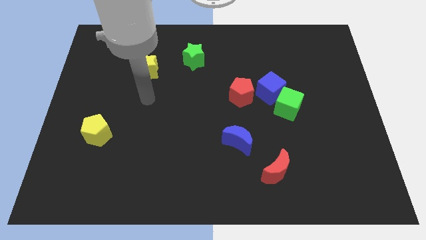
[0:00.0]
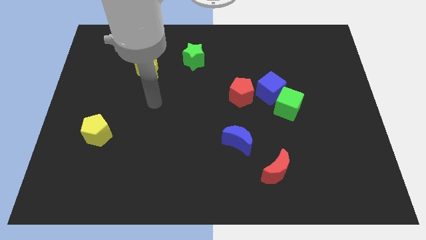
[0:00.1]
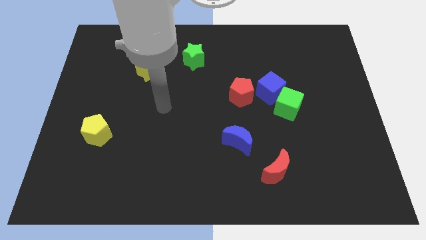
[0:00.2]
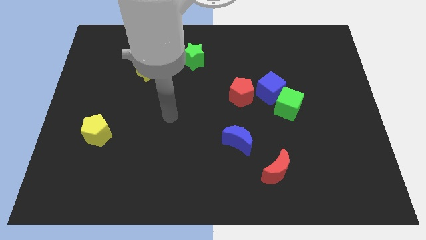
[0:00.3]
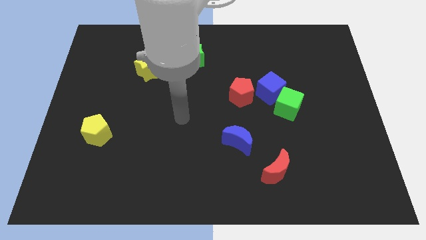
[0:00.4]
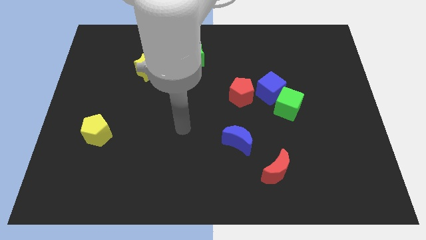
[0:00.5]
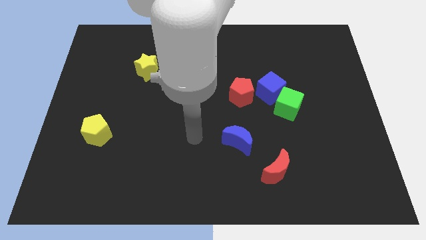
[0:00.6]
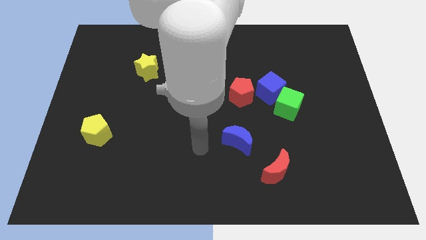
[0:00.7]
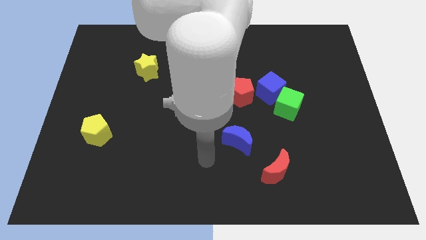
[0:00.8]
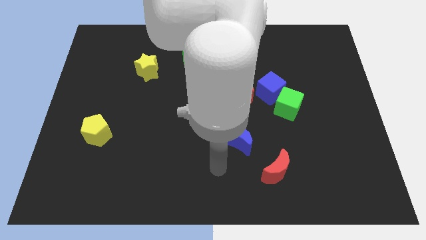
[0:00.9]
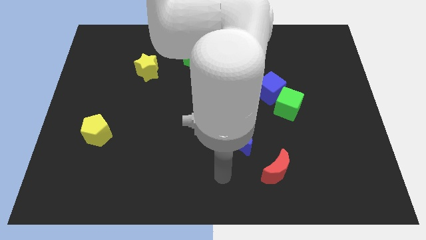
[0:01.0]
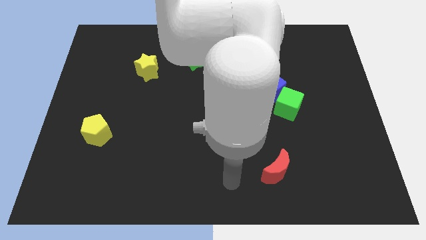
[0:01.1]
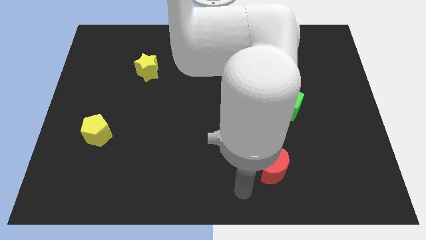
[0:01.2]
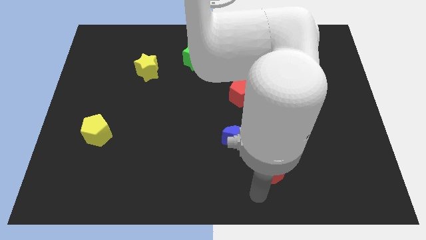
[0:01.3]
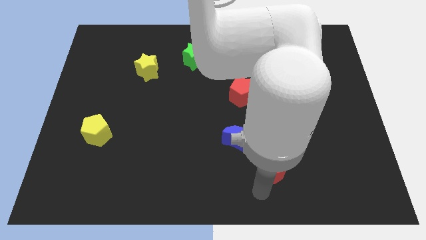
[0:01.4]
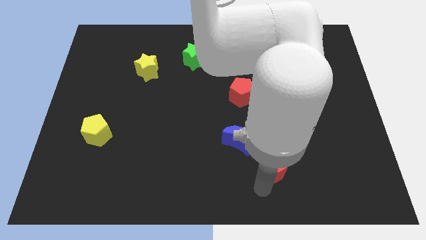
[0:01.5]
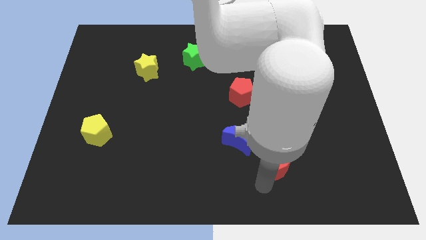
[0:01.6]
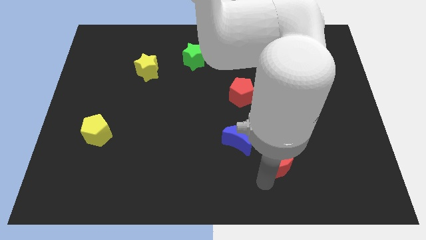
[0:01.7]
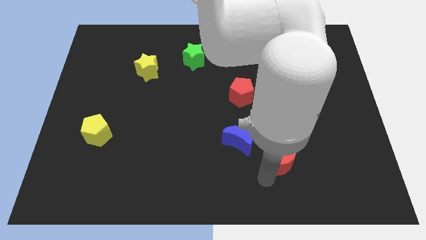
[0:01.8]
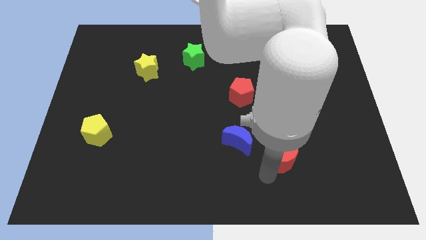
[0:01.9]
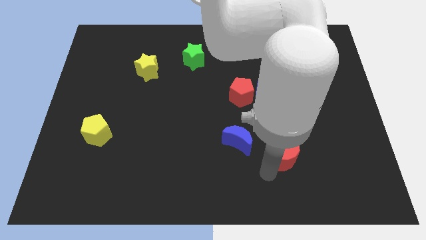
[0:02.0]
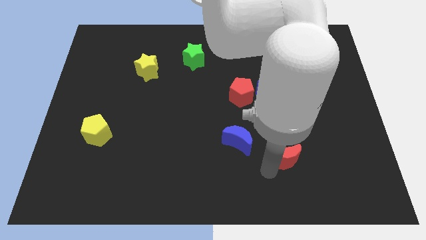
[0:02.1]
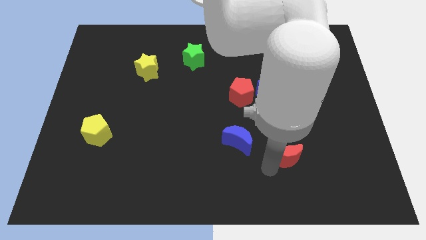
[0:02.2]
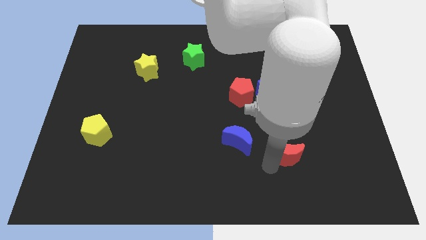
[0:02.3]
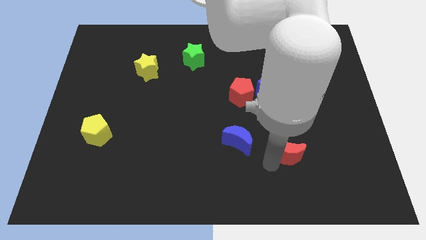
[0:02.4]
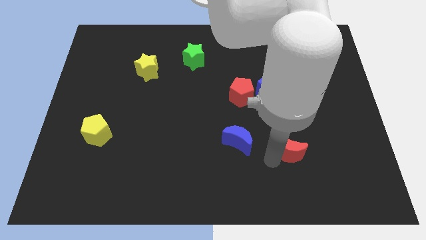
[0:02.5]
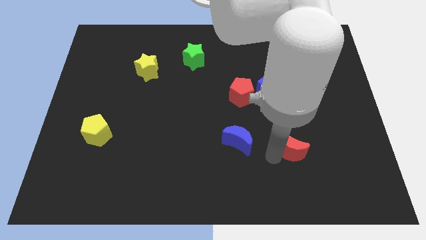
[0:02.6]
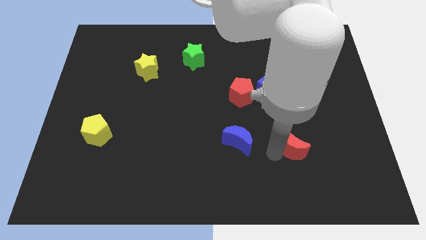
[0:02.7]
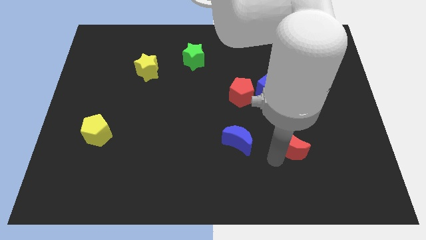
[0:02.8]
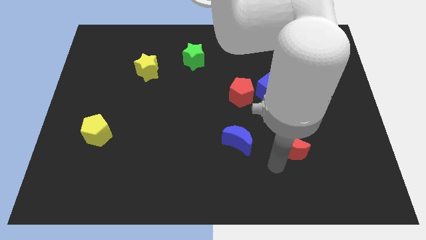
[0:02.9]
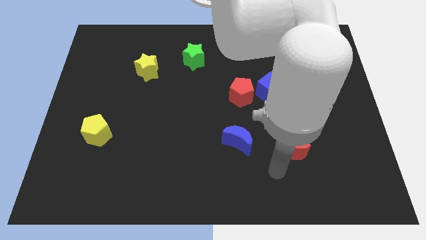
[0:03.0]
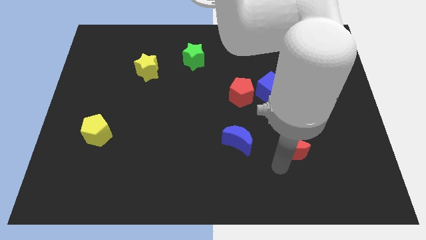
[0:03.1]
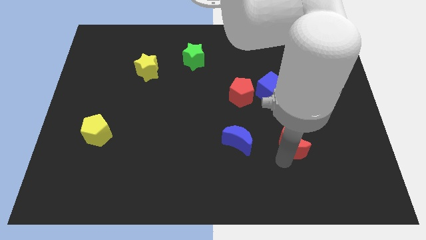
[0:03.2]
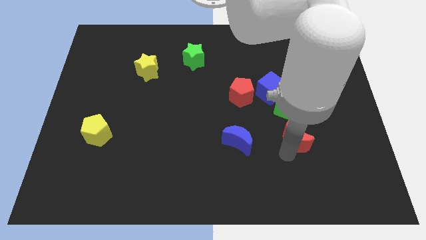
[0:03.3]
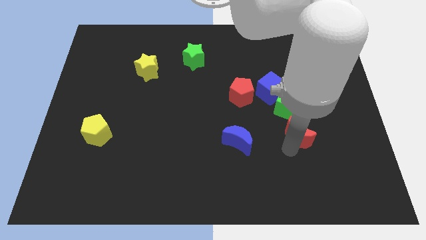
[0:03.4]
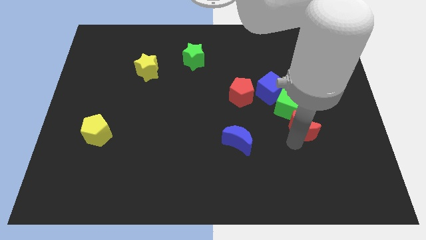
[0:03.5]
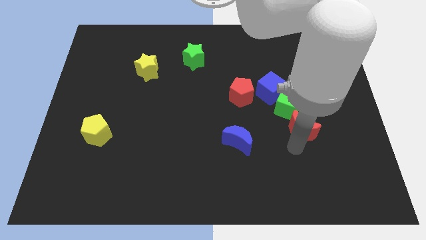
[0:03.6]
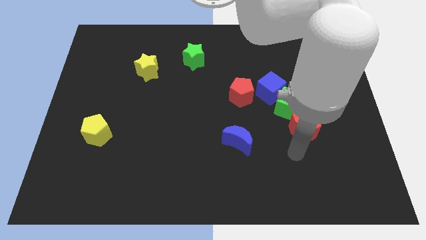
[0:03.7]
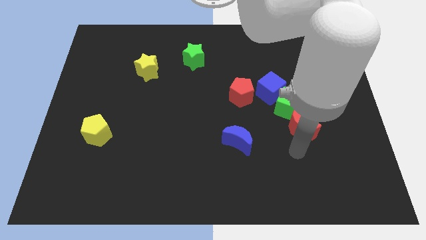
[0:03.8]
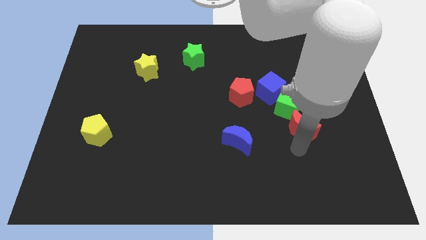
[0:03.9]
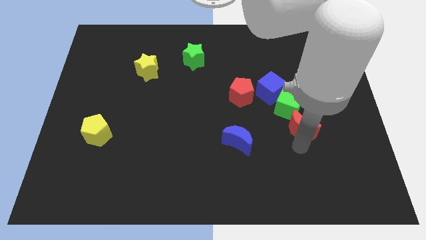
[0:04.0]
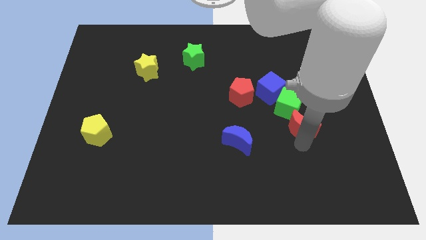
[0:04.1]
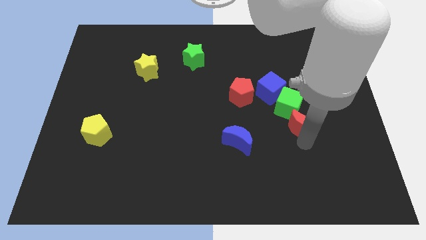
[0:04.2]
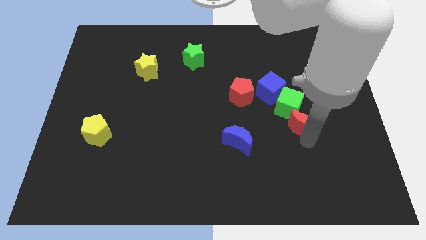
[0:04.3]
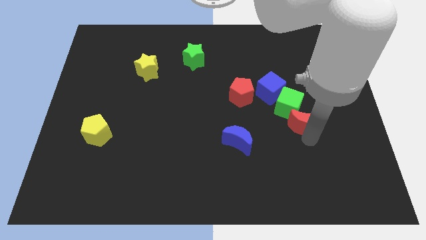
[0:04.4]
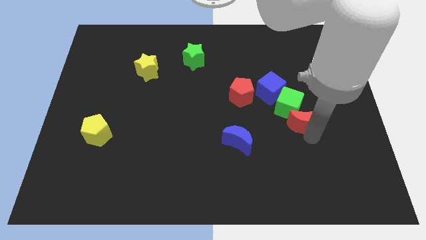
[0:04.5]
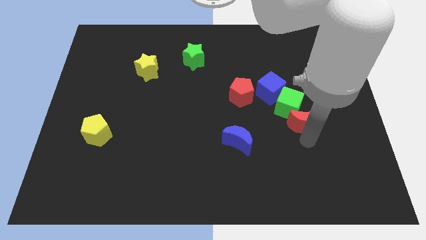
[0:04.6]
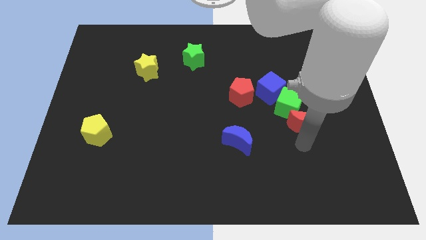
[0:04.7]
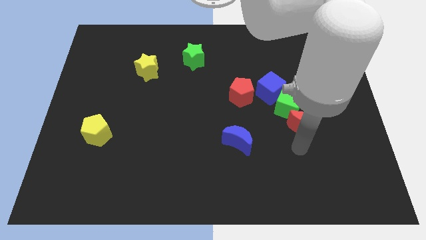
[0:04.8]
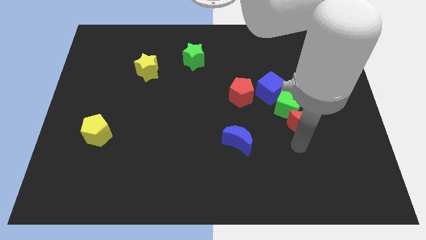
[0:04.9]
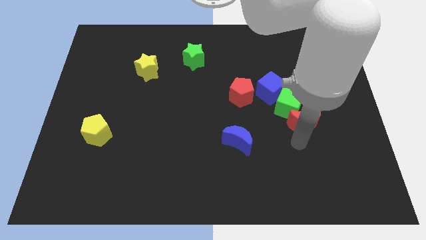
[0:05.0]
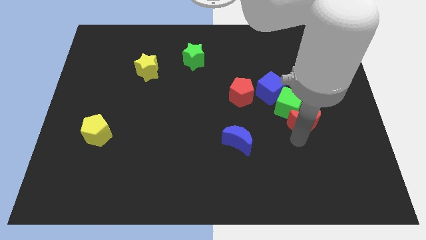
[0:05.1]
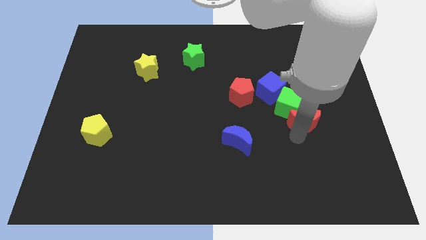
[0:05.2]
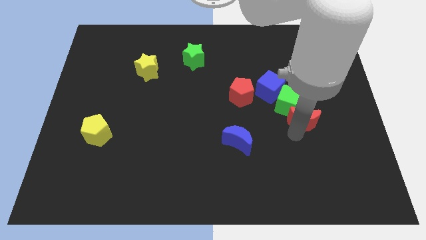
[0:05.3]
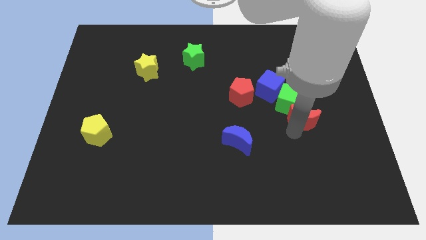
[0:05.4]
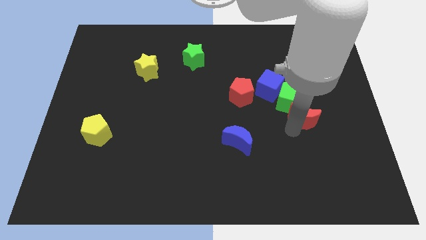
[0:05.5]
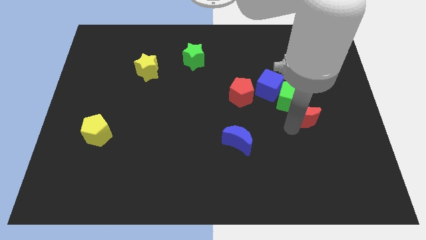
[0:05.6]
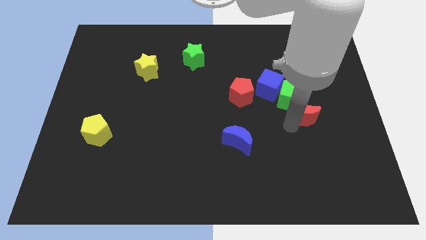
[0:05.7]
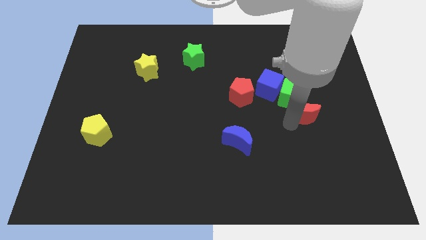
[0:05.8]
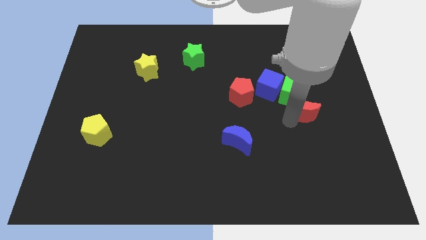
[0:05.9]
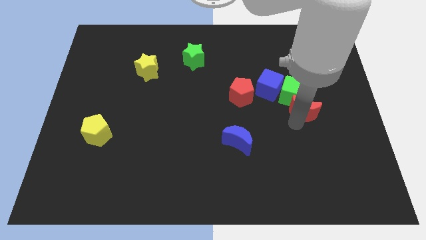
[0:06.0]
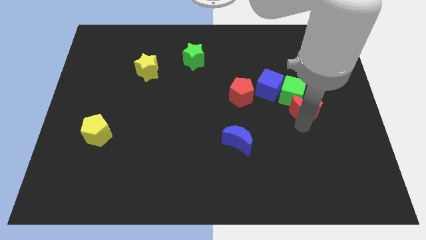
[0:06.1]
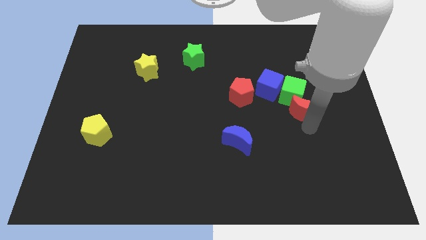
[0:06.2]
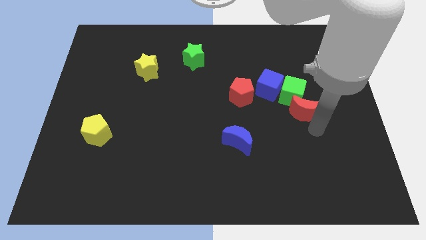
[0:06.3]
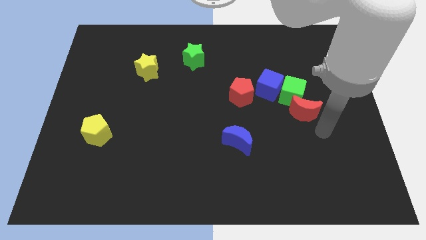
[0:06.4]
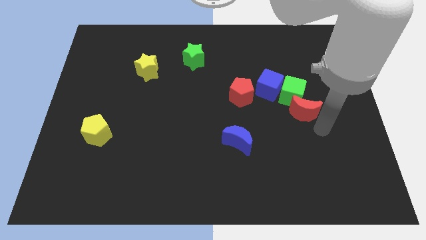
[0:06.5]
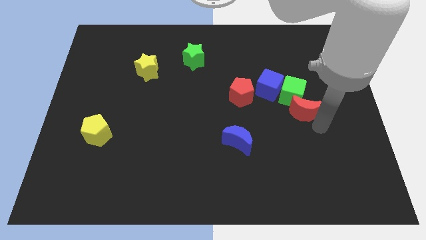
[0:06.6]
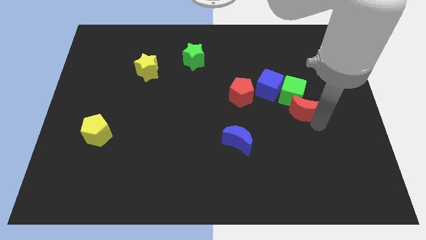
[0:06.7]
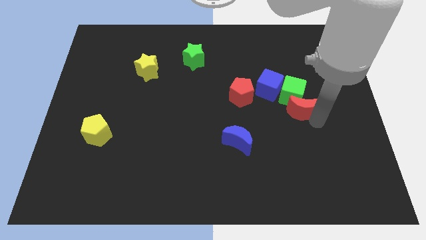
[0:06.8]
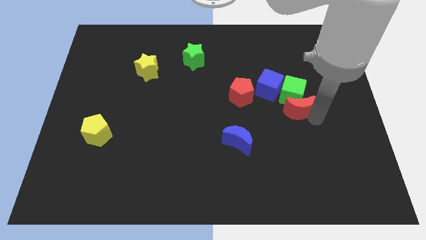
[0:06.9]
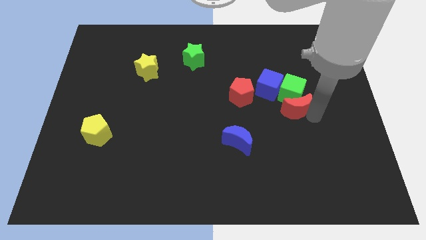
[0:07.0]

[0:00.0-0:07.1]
push the red moon right of the red pentagon

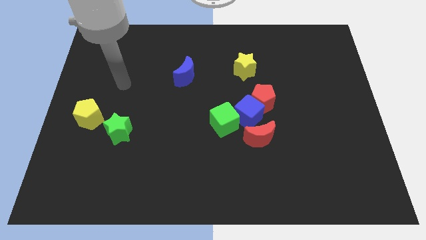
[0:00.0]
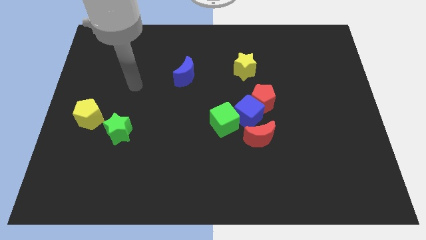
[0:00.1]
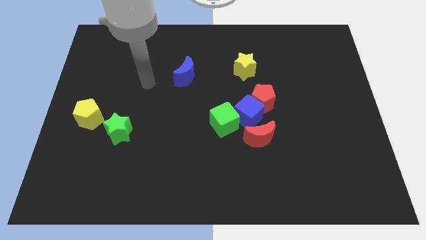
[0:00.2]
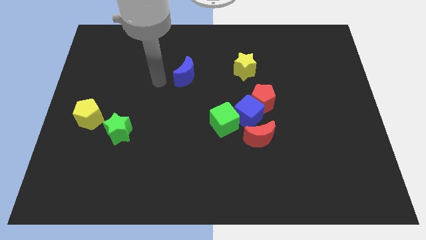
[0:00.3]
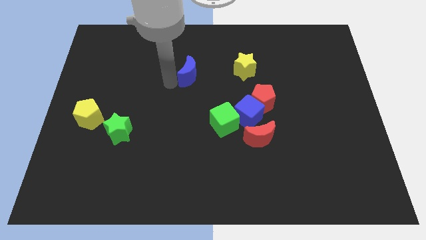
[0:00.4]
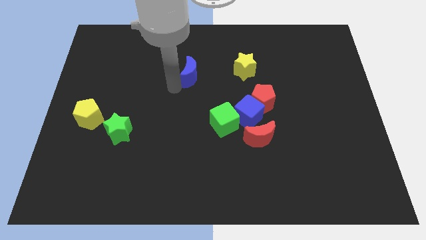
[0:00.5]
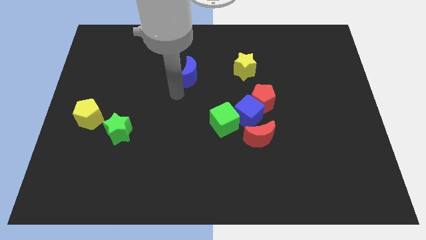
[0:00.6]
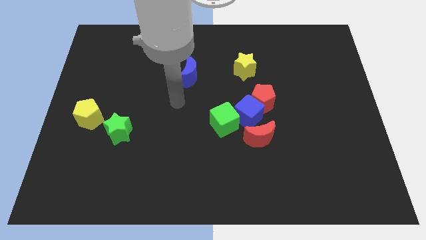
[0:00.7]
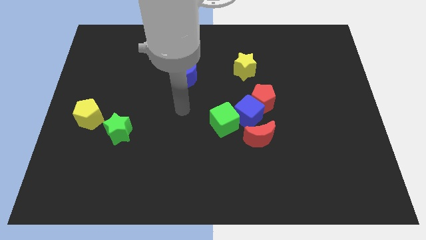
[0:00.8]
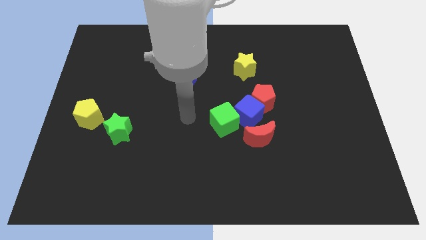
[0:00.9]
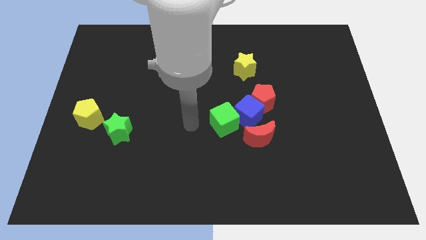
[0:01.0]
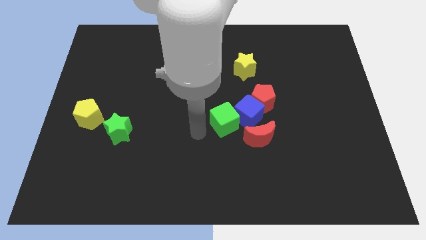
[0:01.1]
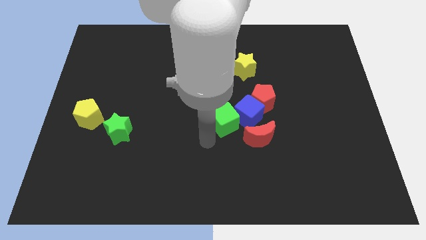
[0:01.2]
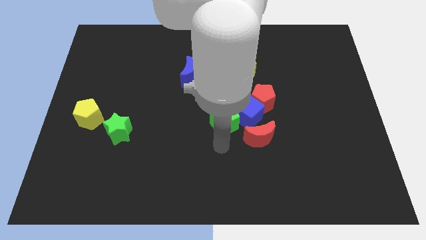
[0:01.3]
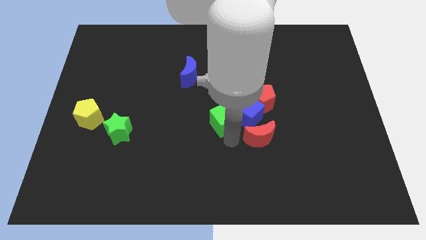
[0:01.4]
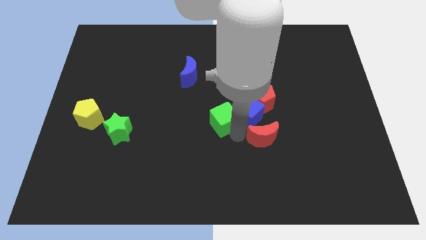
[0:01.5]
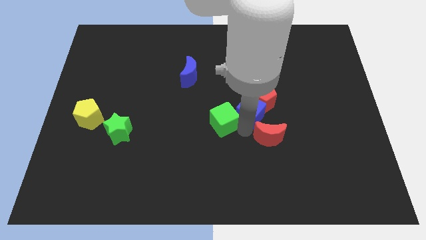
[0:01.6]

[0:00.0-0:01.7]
move the red pentagon to the bottom right of the yellow star
